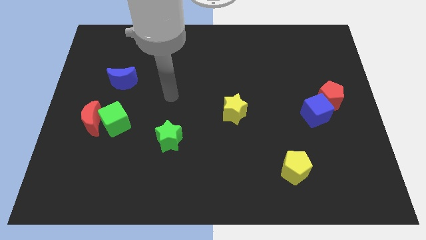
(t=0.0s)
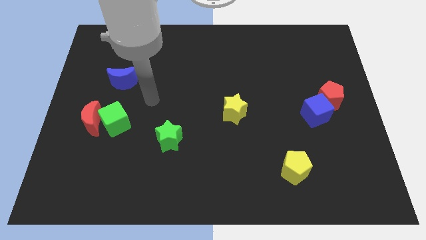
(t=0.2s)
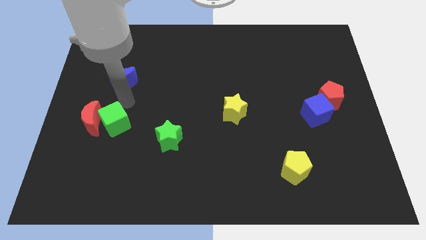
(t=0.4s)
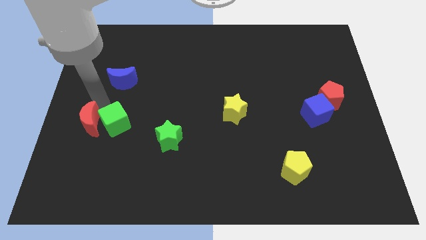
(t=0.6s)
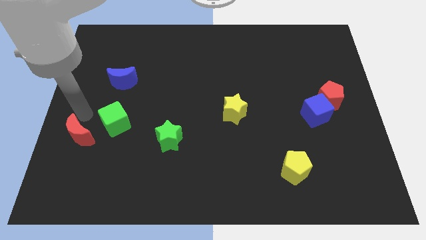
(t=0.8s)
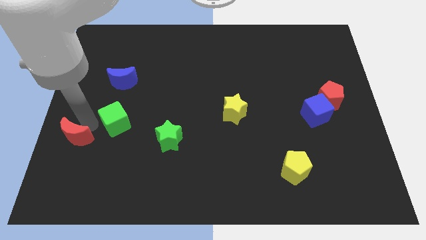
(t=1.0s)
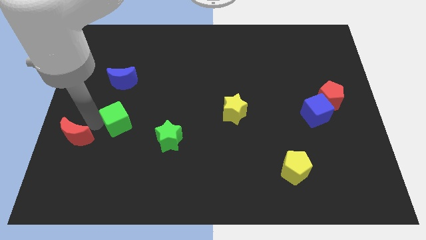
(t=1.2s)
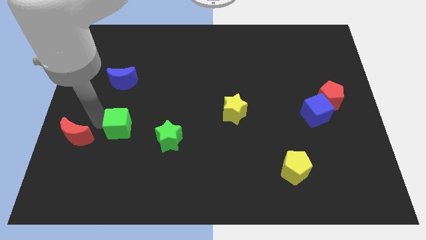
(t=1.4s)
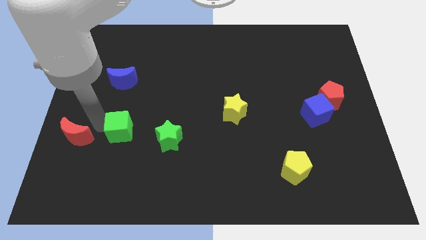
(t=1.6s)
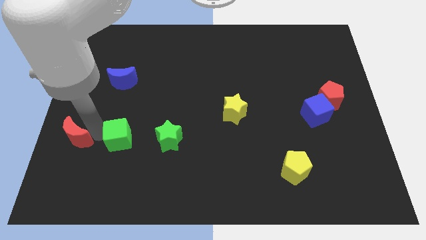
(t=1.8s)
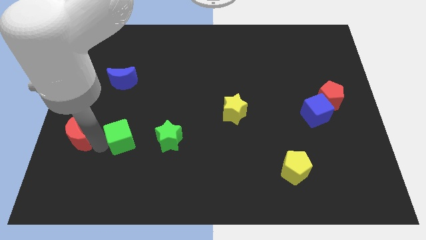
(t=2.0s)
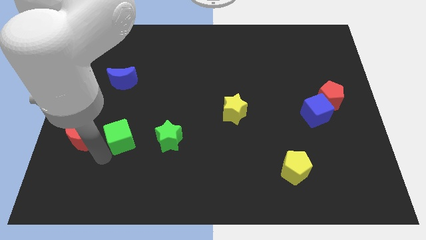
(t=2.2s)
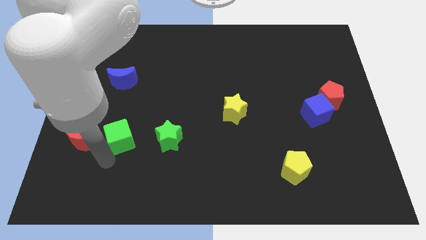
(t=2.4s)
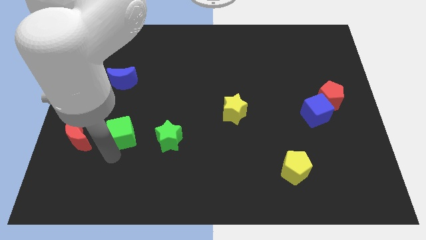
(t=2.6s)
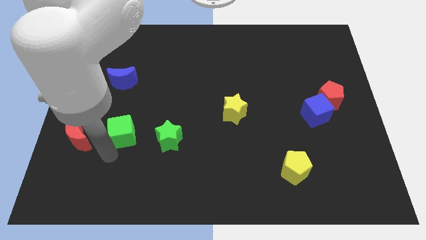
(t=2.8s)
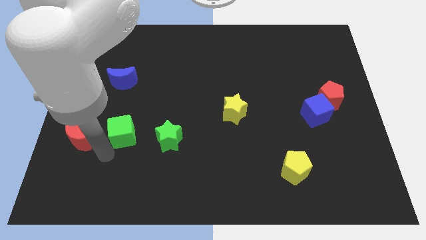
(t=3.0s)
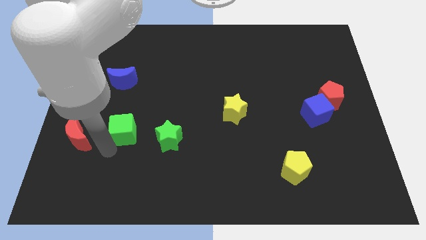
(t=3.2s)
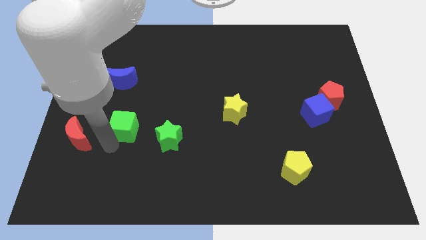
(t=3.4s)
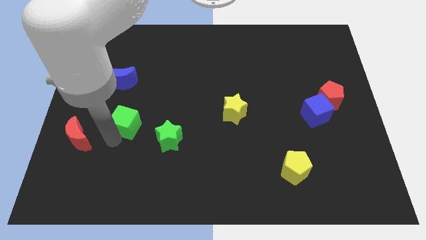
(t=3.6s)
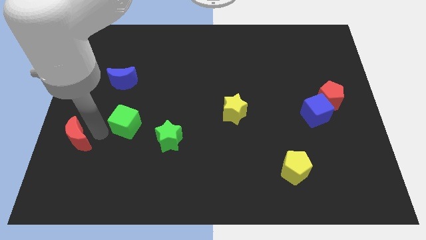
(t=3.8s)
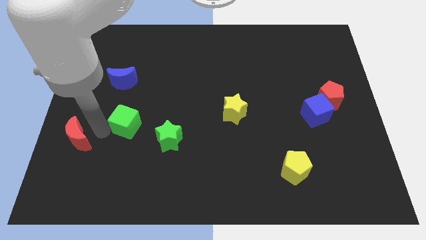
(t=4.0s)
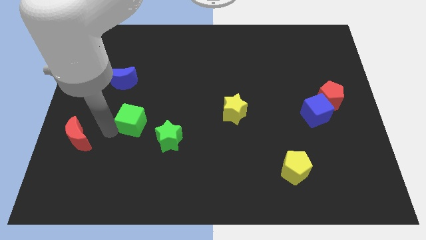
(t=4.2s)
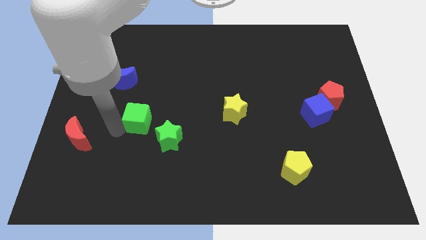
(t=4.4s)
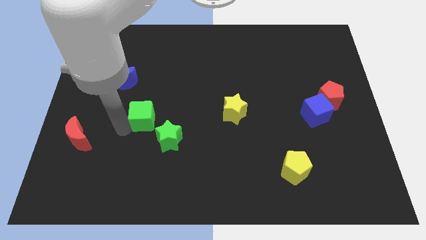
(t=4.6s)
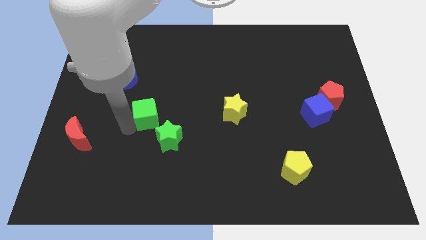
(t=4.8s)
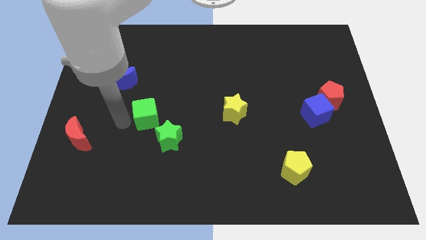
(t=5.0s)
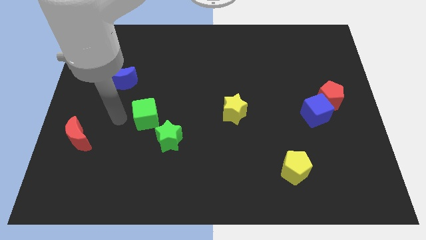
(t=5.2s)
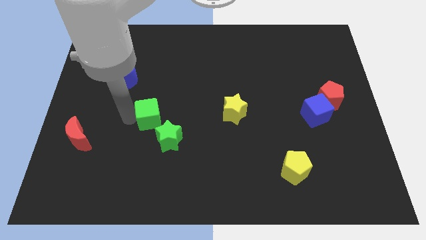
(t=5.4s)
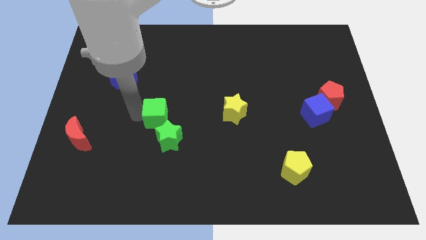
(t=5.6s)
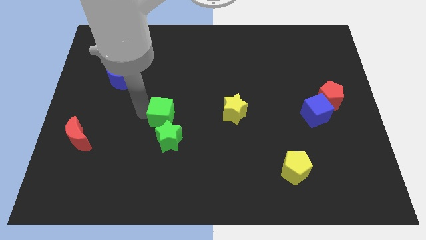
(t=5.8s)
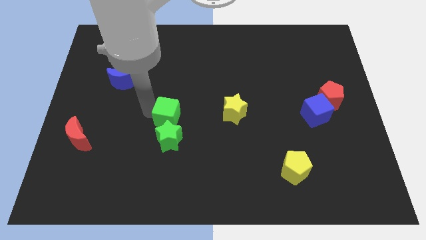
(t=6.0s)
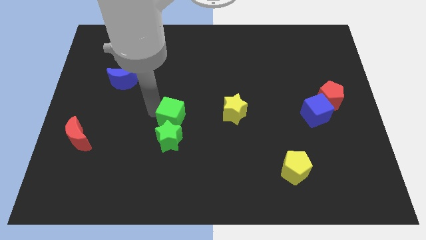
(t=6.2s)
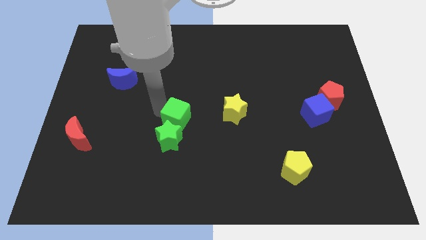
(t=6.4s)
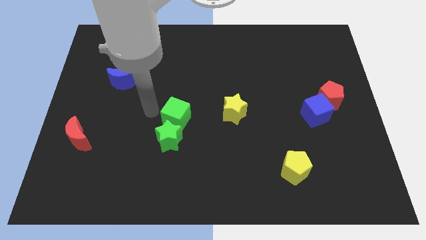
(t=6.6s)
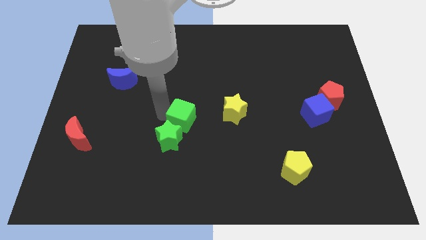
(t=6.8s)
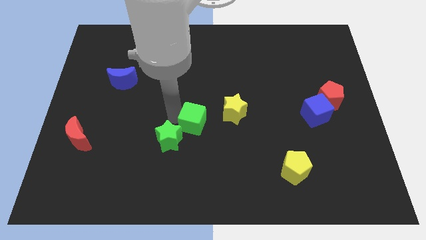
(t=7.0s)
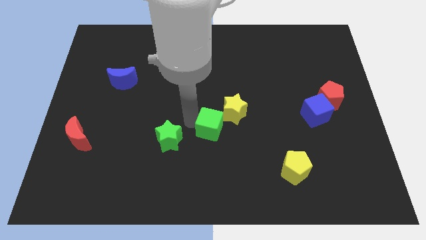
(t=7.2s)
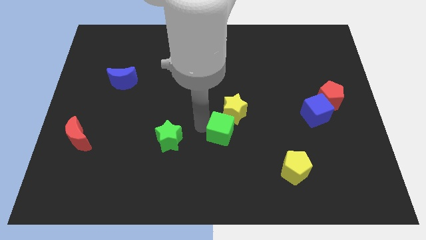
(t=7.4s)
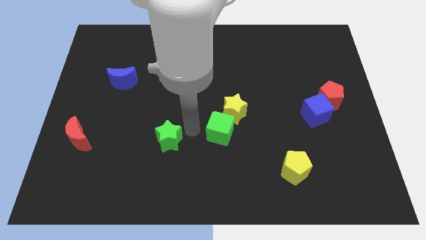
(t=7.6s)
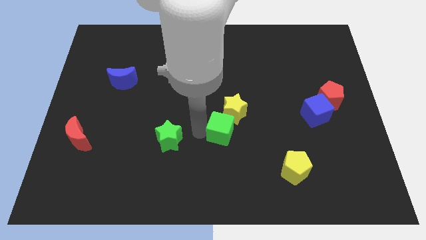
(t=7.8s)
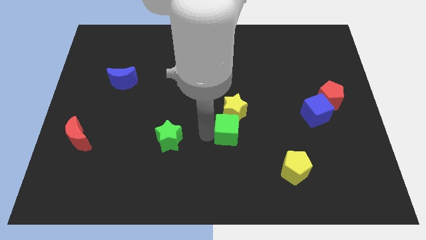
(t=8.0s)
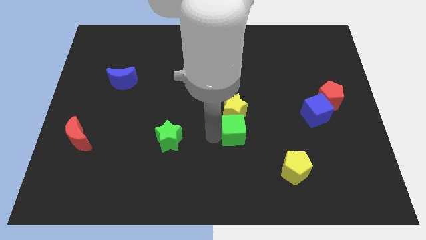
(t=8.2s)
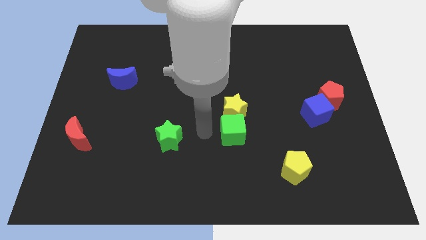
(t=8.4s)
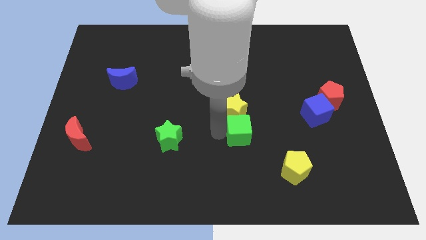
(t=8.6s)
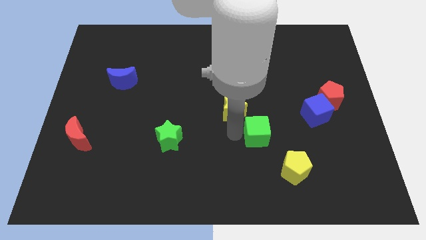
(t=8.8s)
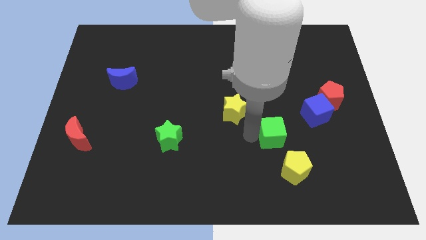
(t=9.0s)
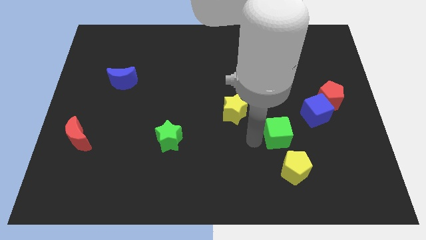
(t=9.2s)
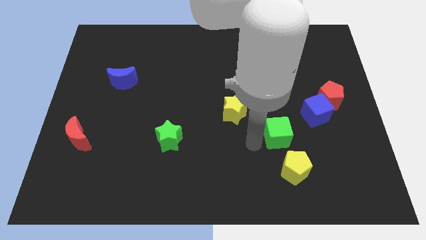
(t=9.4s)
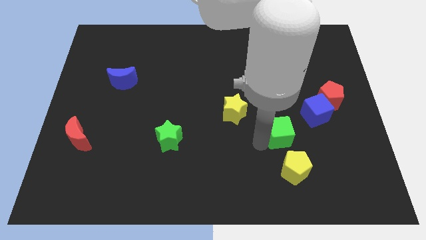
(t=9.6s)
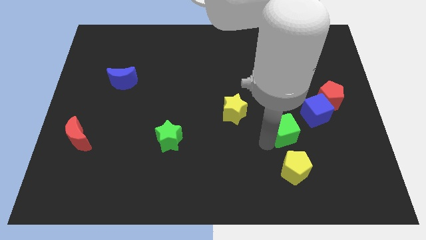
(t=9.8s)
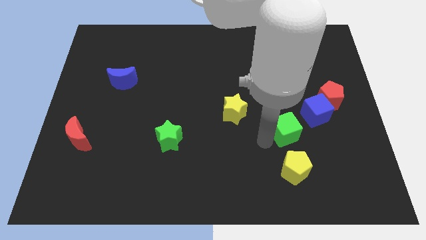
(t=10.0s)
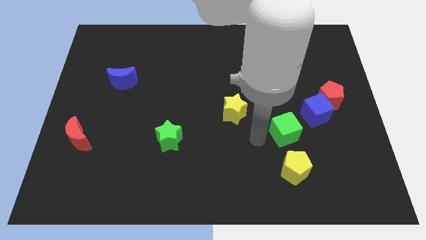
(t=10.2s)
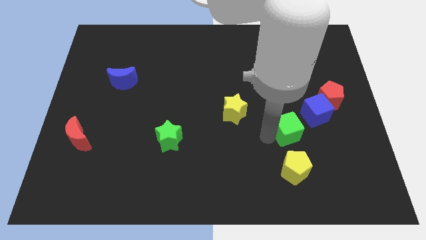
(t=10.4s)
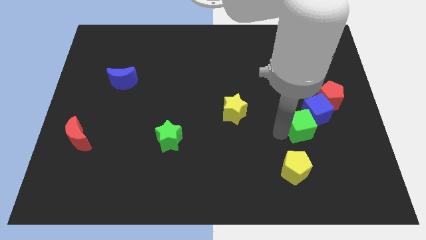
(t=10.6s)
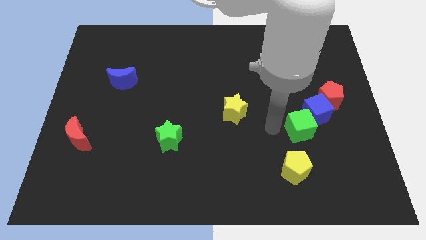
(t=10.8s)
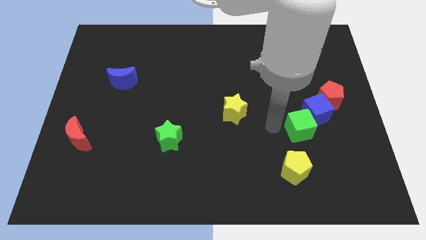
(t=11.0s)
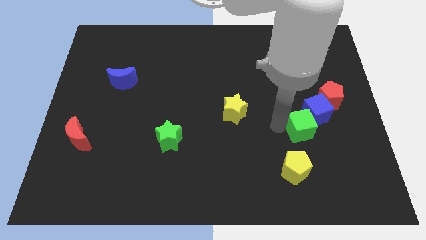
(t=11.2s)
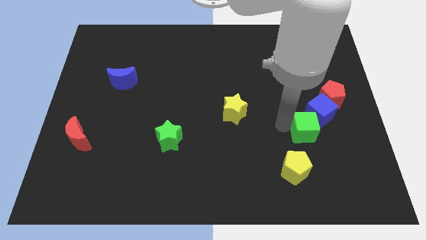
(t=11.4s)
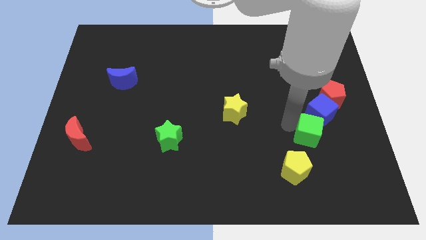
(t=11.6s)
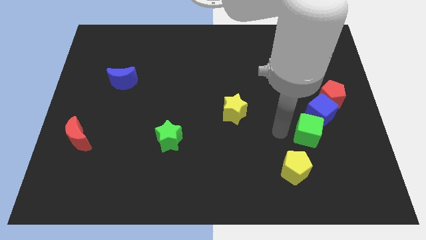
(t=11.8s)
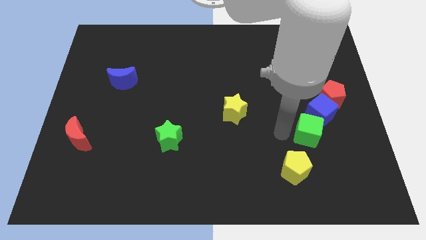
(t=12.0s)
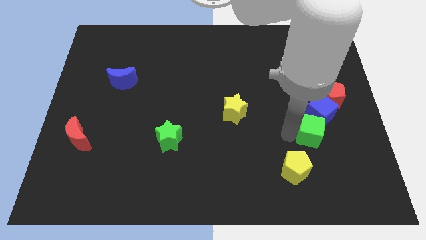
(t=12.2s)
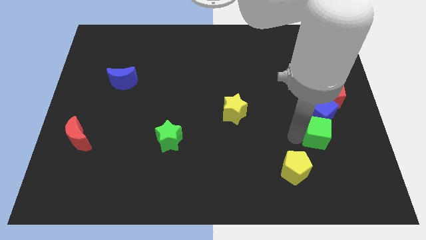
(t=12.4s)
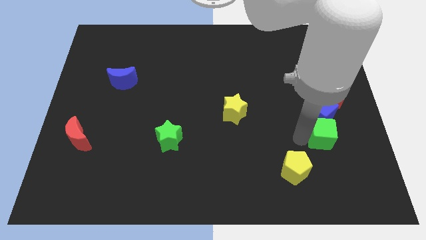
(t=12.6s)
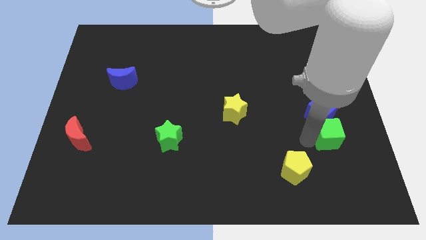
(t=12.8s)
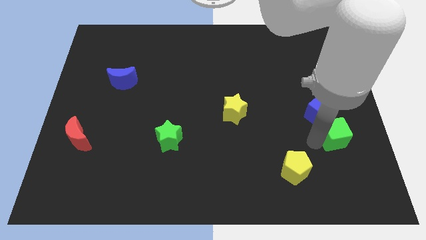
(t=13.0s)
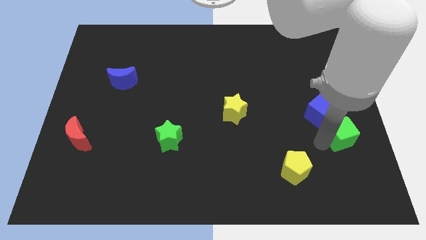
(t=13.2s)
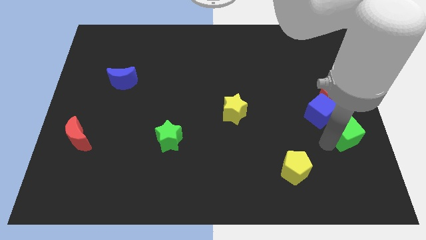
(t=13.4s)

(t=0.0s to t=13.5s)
slide the green cube to the center right

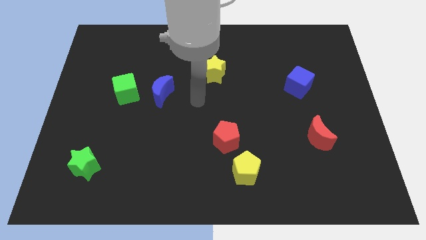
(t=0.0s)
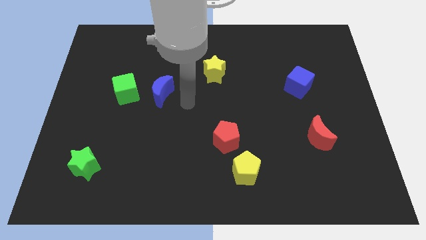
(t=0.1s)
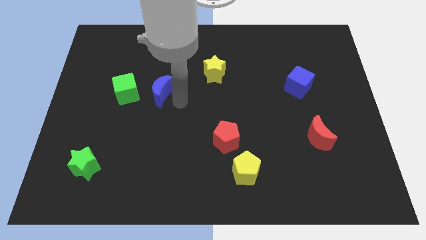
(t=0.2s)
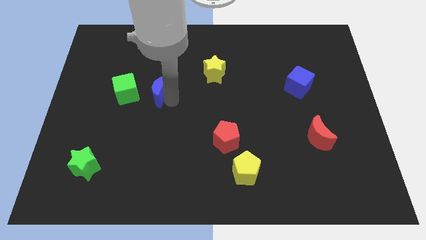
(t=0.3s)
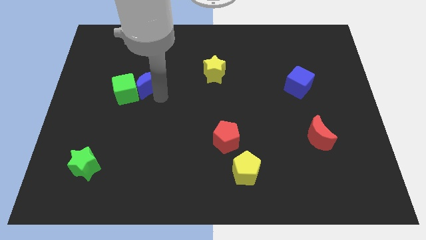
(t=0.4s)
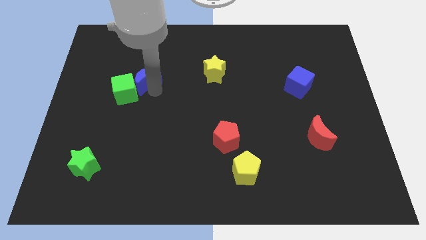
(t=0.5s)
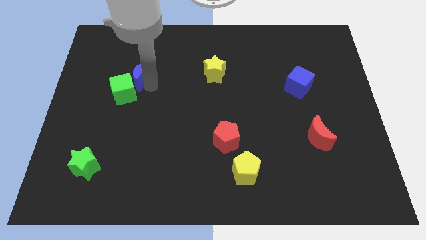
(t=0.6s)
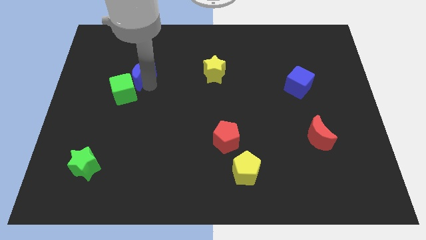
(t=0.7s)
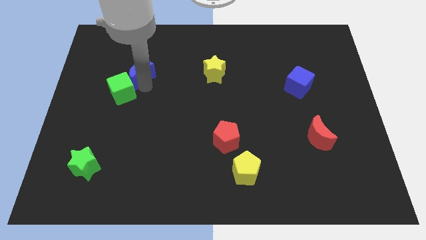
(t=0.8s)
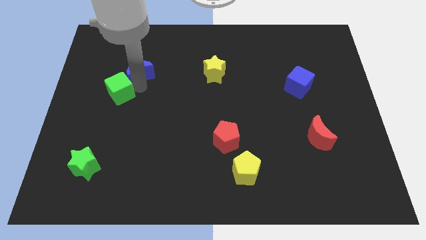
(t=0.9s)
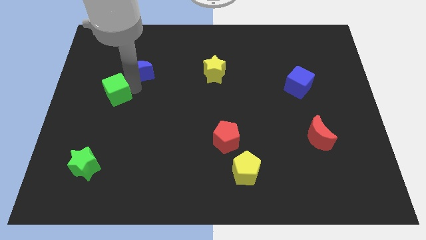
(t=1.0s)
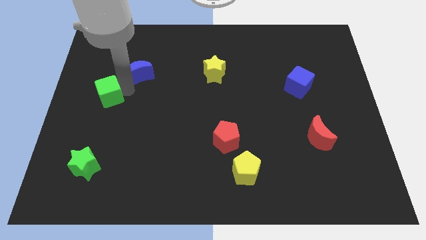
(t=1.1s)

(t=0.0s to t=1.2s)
put the green cube to the center left
